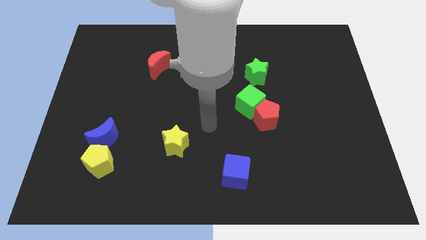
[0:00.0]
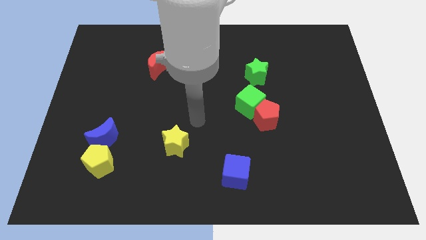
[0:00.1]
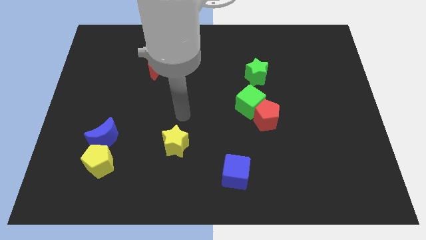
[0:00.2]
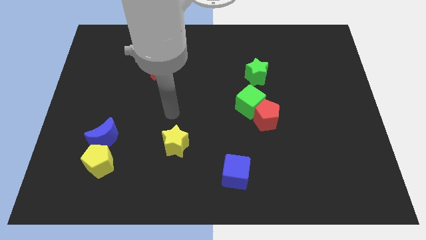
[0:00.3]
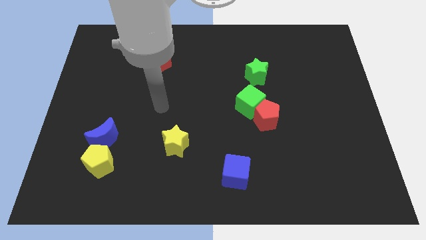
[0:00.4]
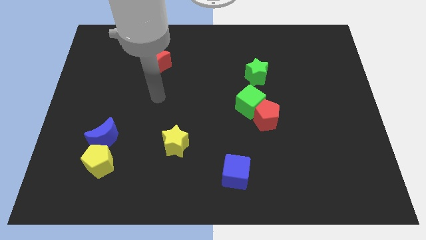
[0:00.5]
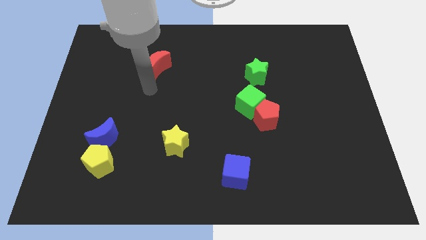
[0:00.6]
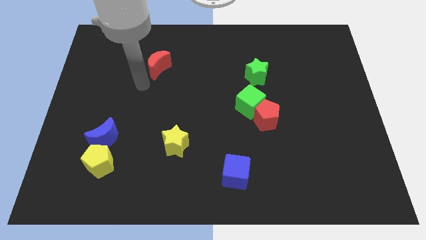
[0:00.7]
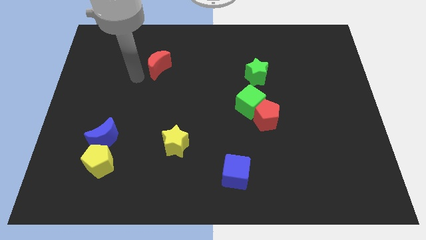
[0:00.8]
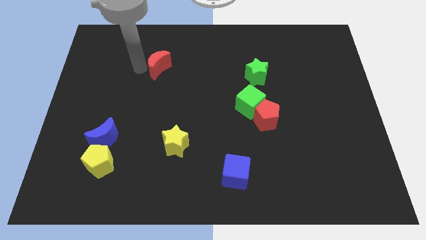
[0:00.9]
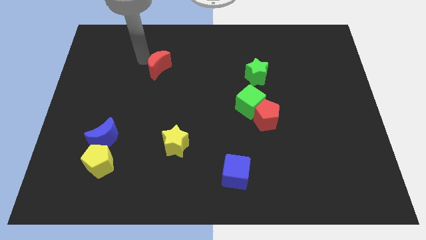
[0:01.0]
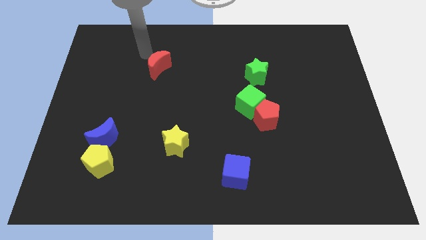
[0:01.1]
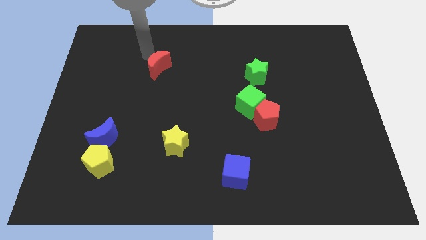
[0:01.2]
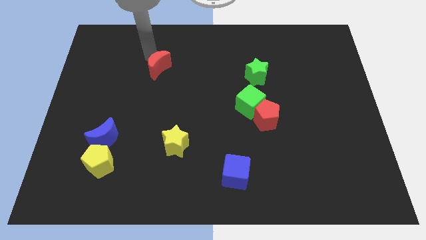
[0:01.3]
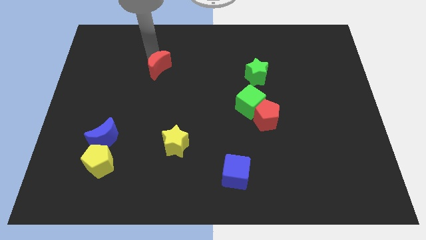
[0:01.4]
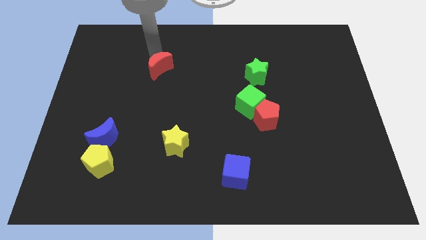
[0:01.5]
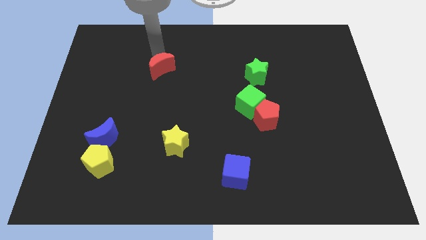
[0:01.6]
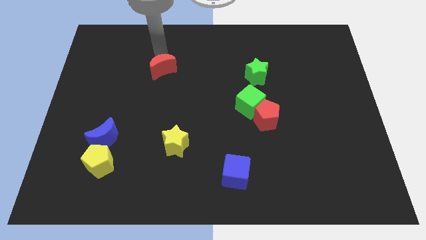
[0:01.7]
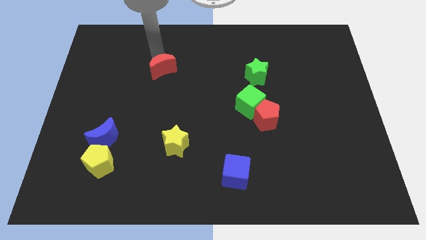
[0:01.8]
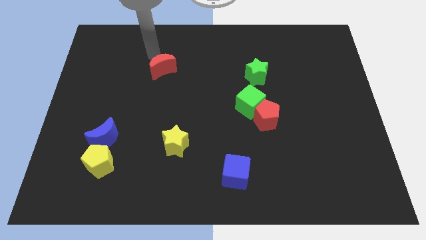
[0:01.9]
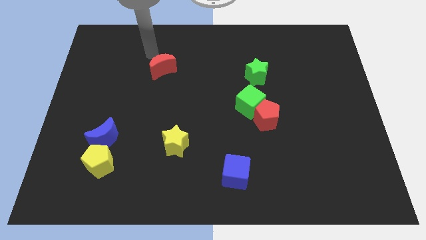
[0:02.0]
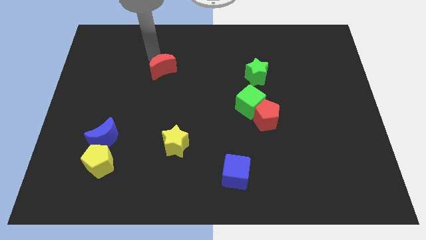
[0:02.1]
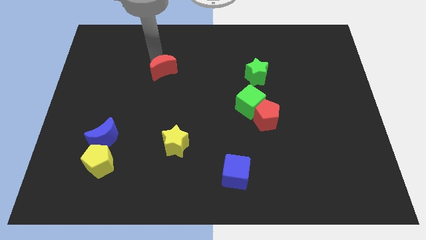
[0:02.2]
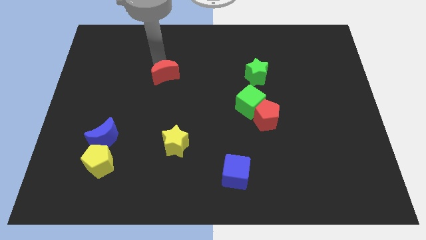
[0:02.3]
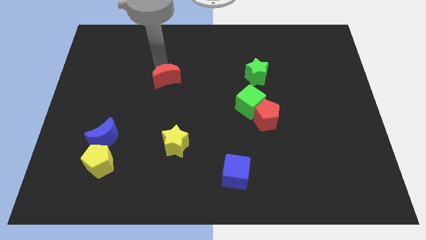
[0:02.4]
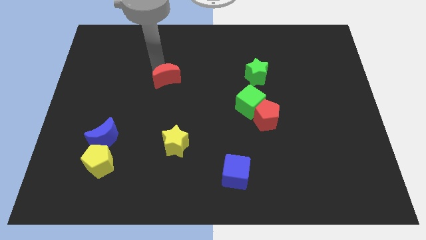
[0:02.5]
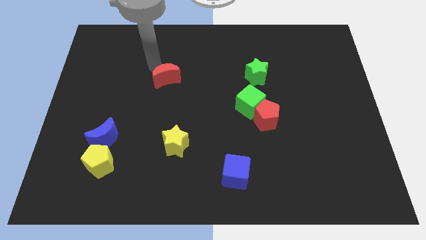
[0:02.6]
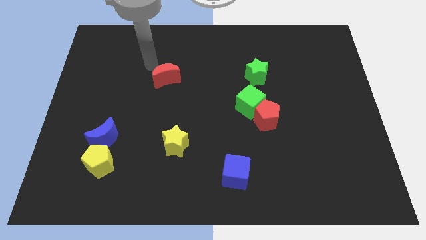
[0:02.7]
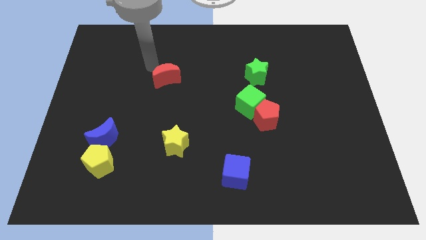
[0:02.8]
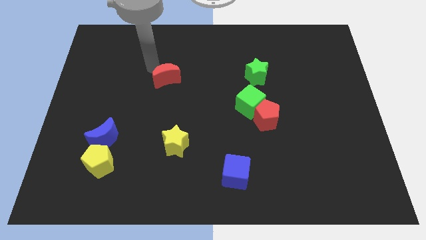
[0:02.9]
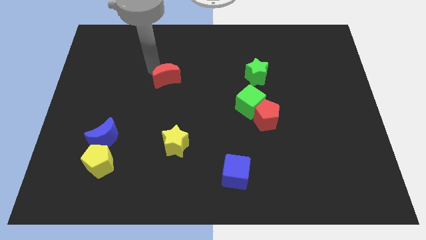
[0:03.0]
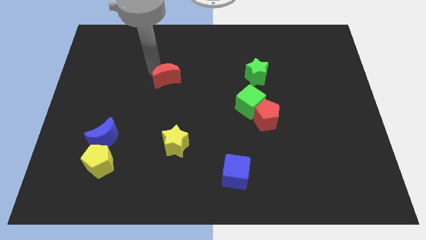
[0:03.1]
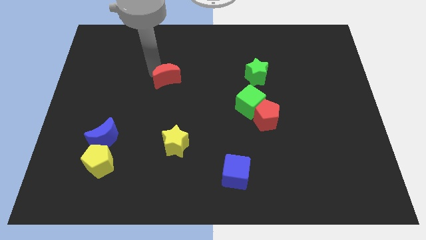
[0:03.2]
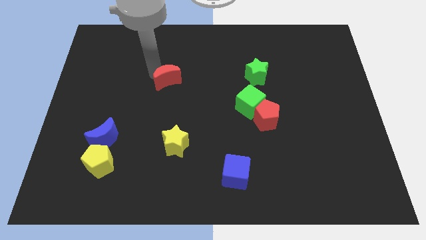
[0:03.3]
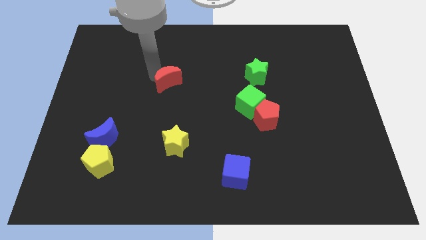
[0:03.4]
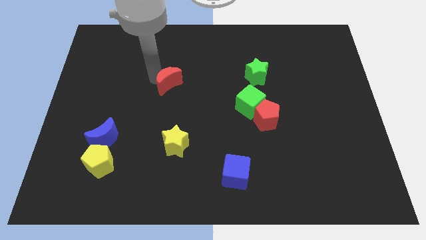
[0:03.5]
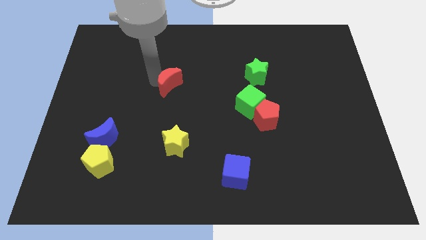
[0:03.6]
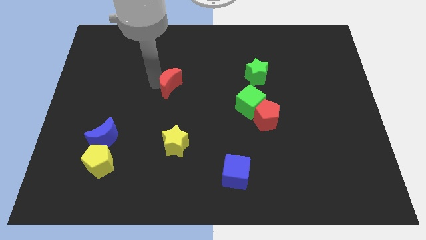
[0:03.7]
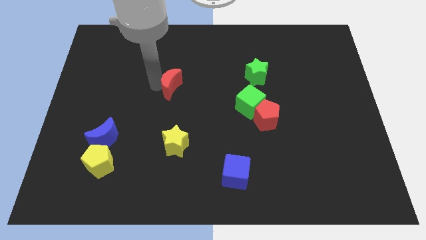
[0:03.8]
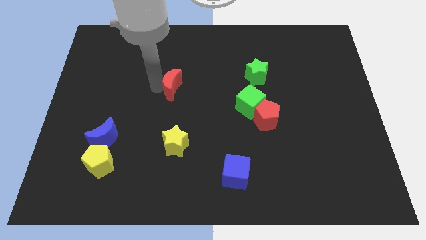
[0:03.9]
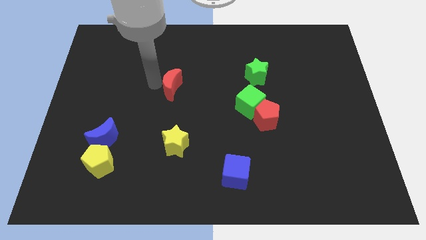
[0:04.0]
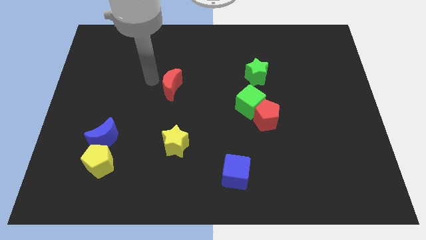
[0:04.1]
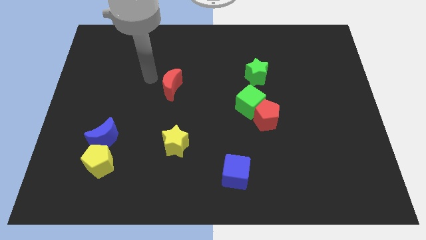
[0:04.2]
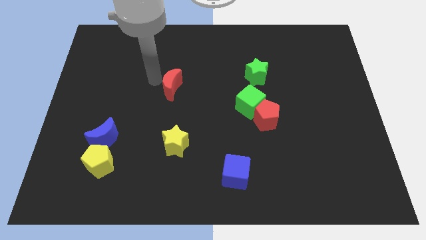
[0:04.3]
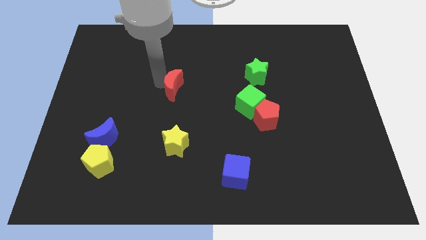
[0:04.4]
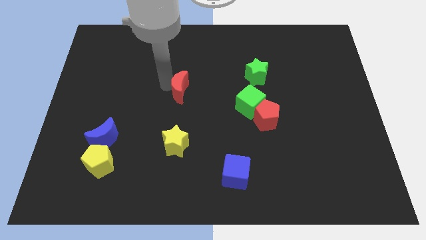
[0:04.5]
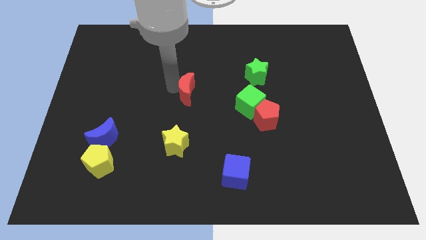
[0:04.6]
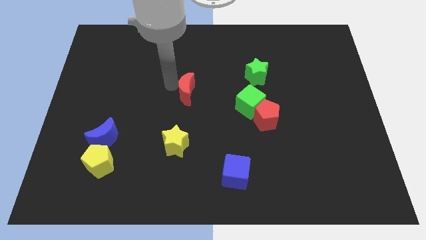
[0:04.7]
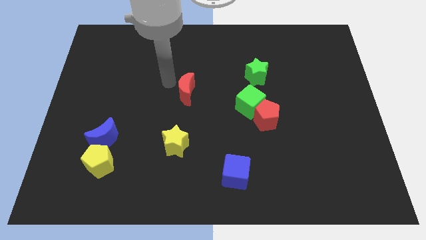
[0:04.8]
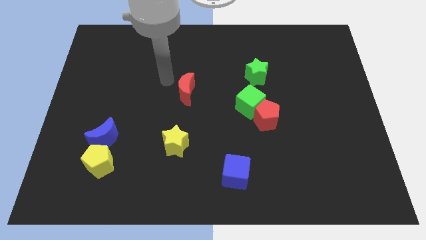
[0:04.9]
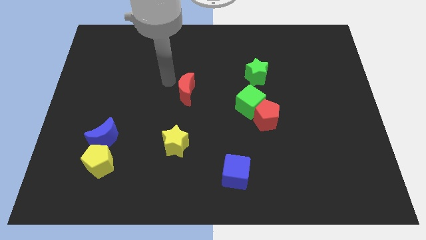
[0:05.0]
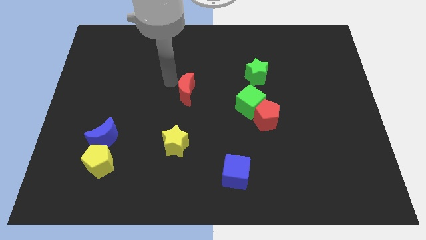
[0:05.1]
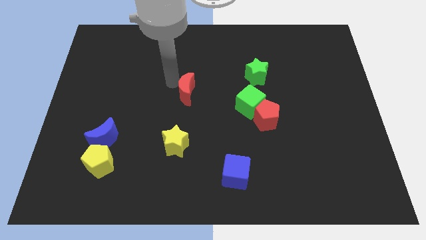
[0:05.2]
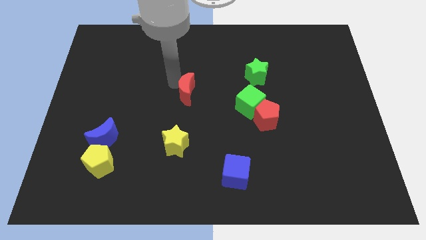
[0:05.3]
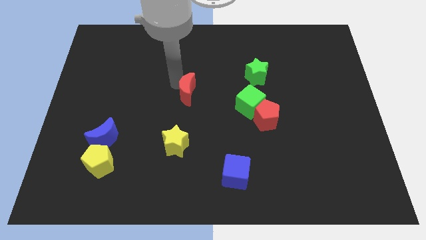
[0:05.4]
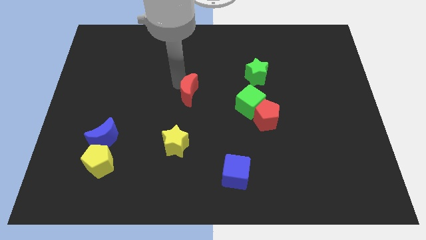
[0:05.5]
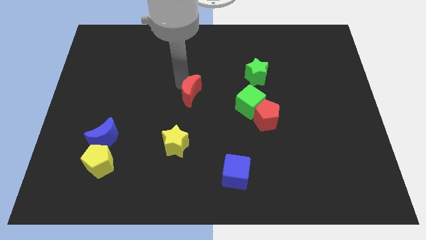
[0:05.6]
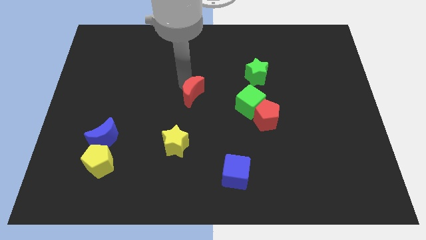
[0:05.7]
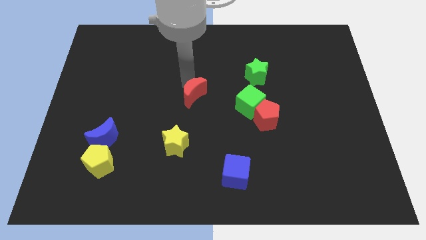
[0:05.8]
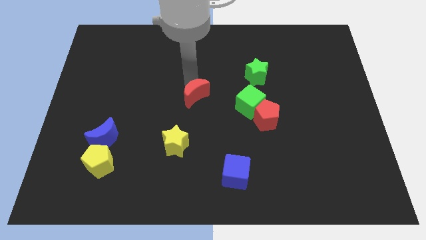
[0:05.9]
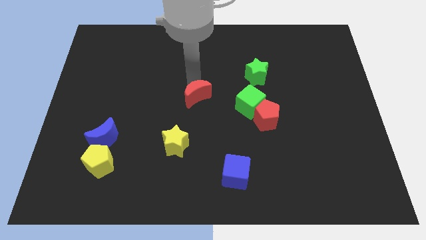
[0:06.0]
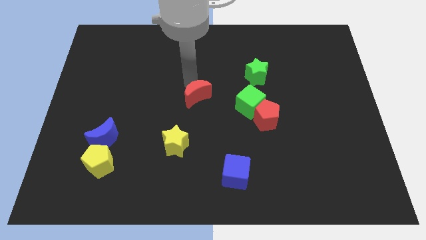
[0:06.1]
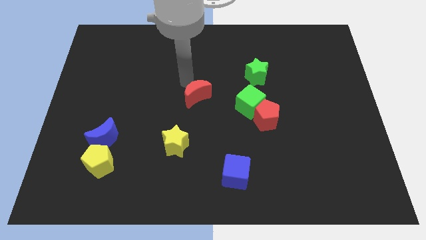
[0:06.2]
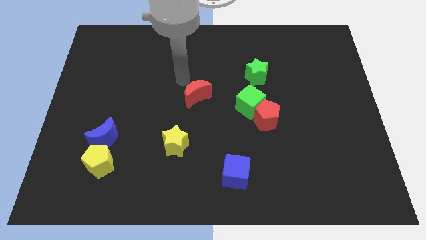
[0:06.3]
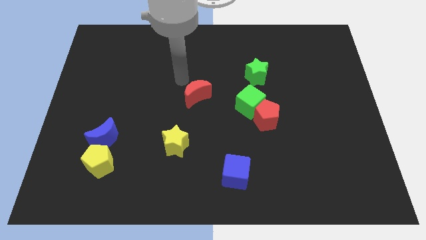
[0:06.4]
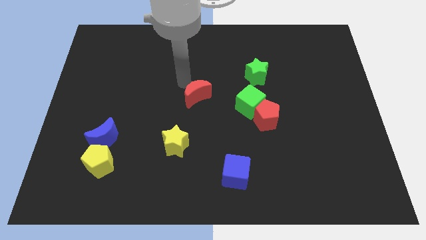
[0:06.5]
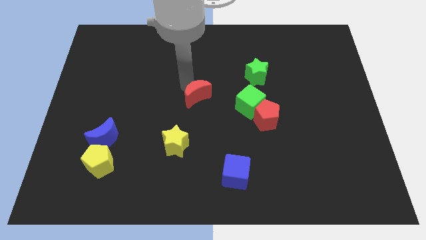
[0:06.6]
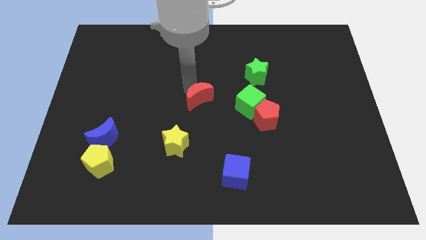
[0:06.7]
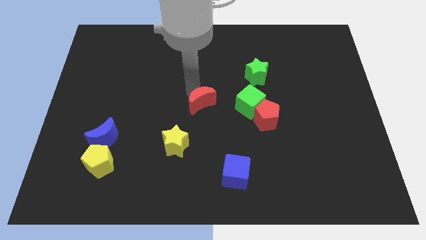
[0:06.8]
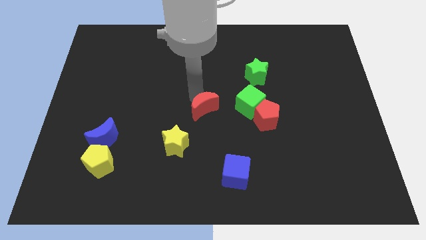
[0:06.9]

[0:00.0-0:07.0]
put the red moon left of the red pentagon
